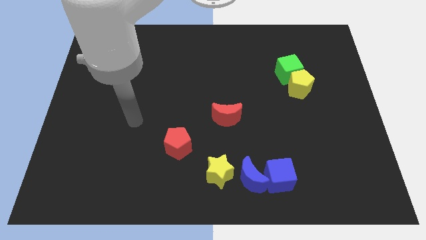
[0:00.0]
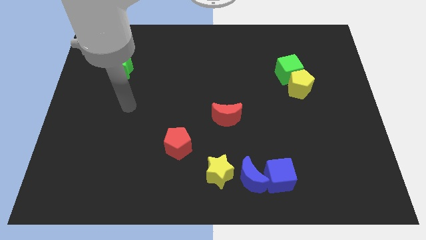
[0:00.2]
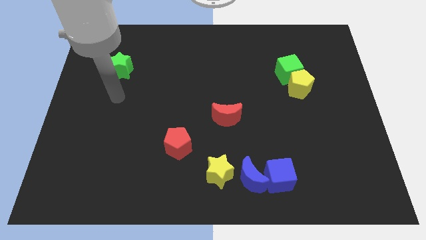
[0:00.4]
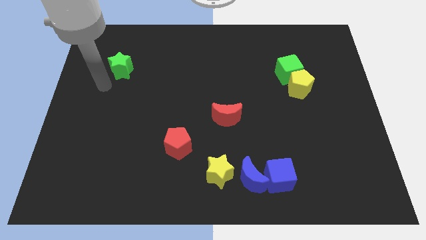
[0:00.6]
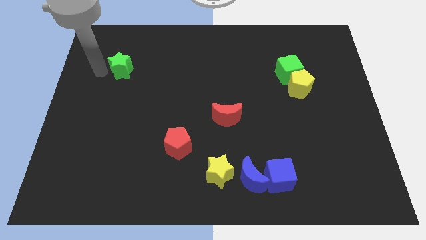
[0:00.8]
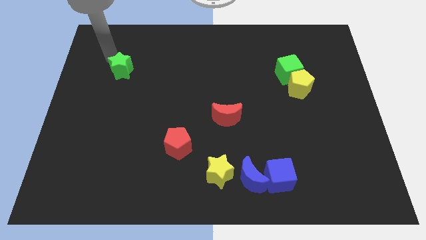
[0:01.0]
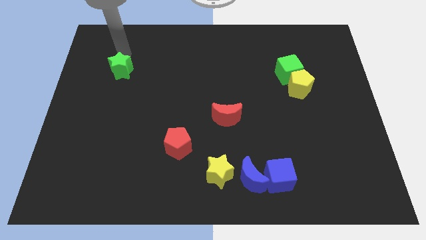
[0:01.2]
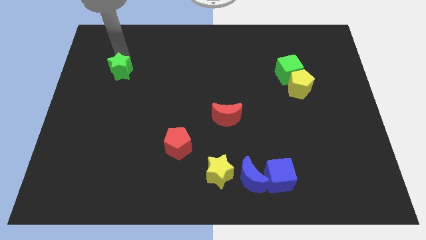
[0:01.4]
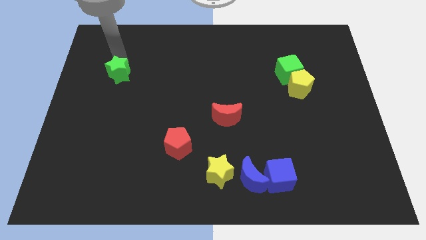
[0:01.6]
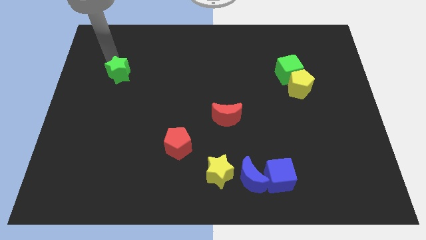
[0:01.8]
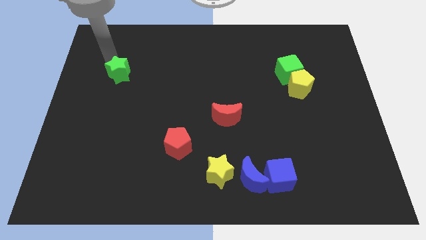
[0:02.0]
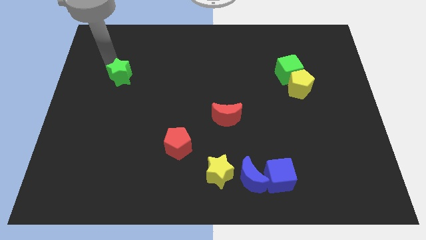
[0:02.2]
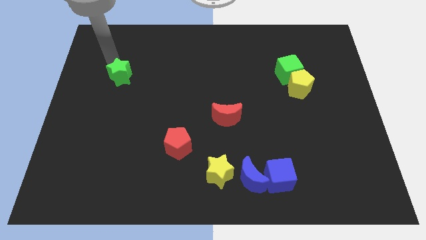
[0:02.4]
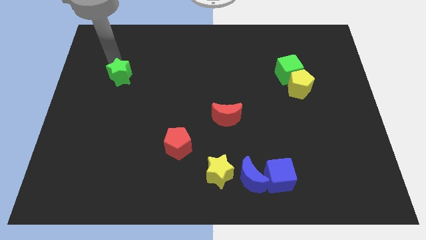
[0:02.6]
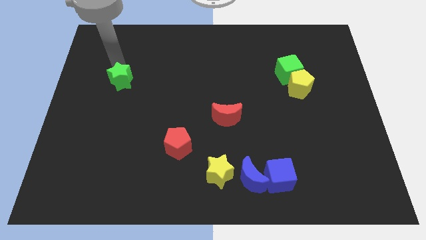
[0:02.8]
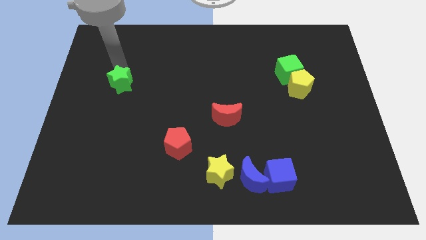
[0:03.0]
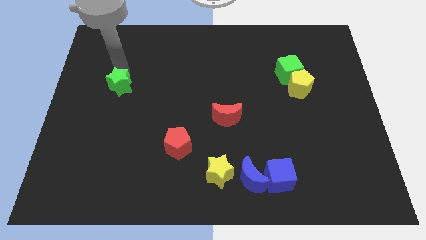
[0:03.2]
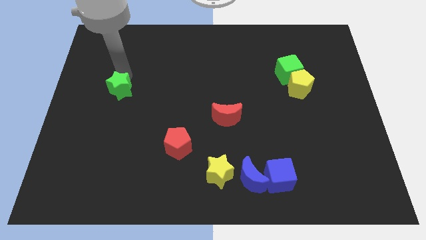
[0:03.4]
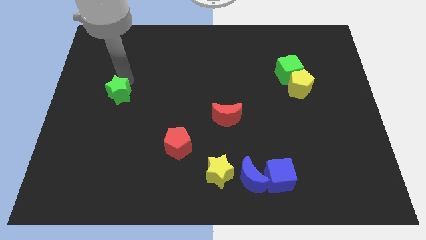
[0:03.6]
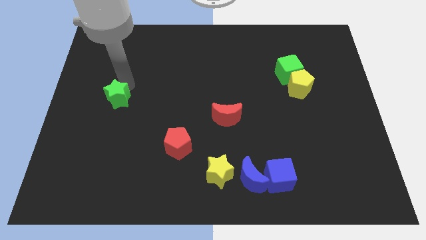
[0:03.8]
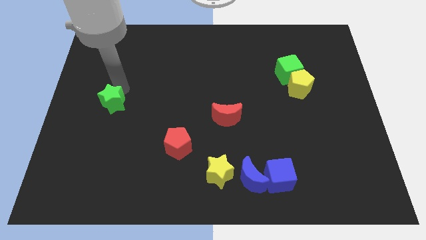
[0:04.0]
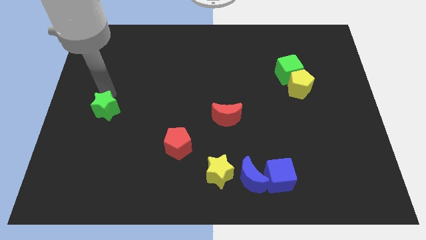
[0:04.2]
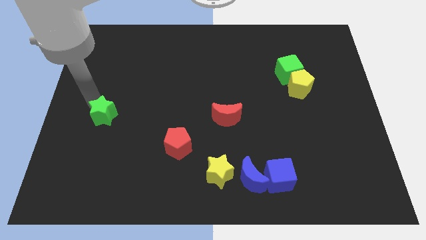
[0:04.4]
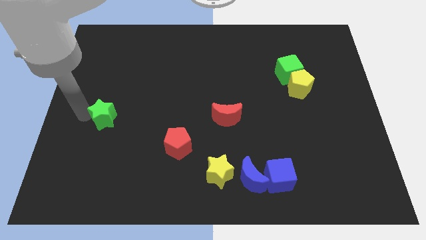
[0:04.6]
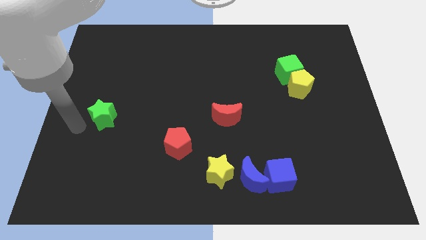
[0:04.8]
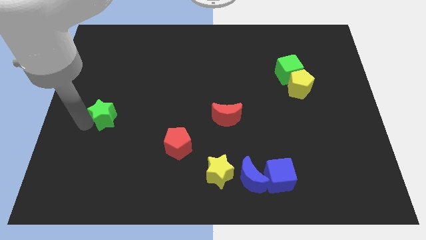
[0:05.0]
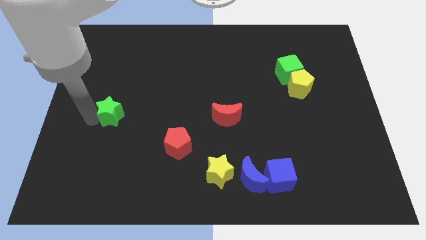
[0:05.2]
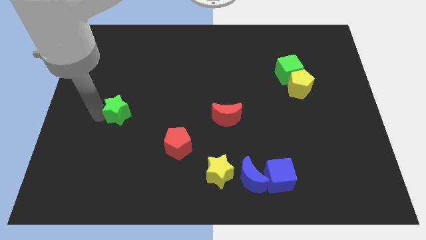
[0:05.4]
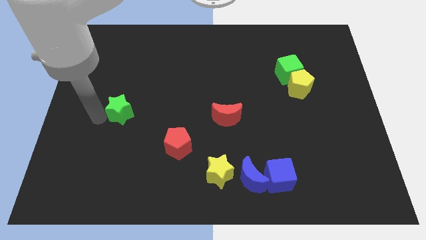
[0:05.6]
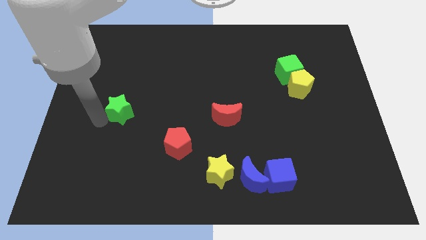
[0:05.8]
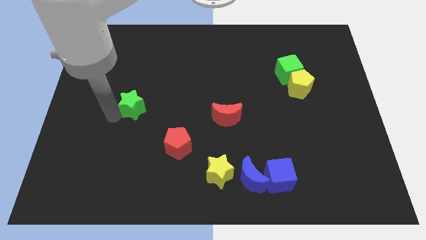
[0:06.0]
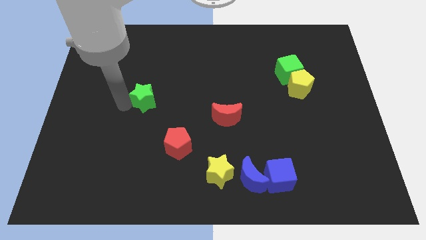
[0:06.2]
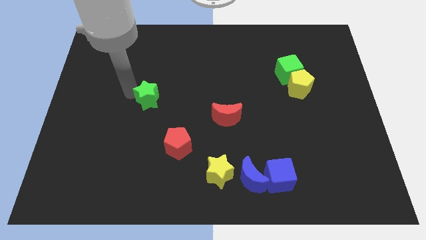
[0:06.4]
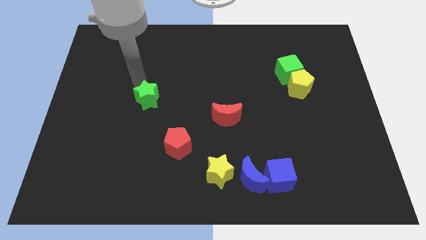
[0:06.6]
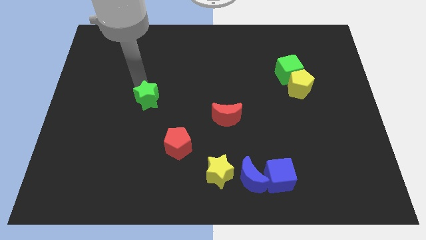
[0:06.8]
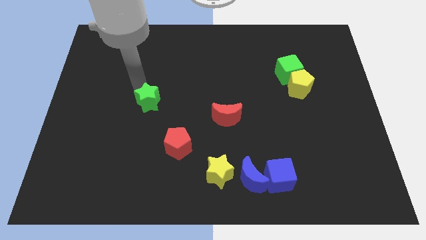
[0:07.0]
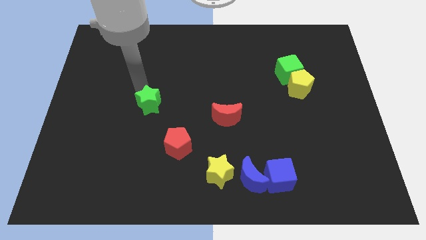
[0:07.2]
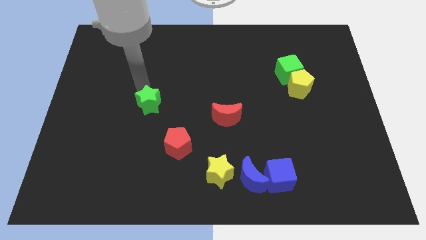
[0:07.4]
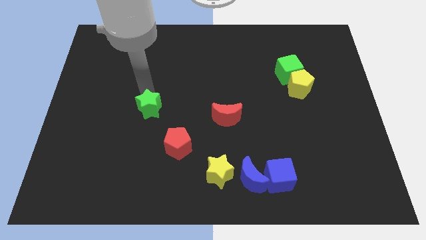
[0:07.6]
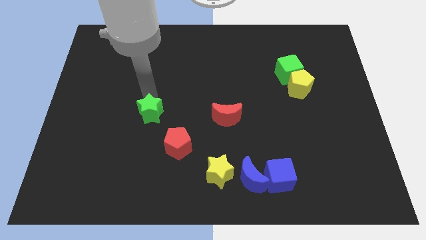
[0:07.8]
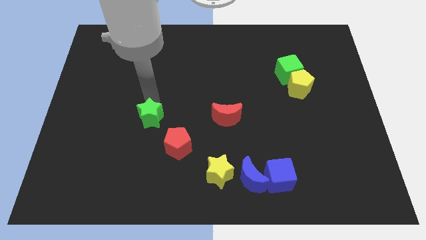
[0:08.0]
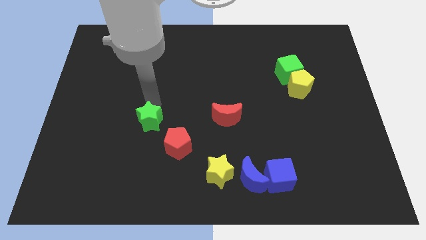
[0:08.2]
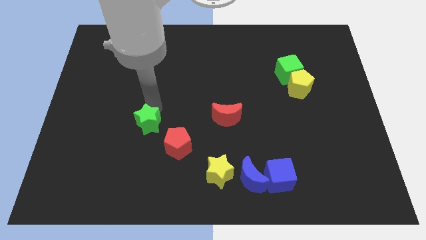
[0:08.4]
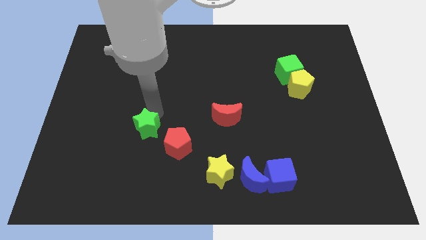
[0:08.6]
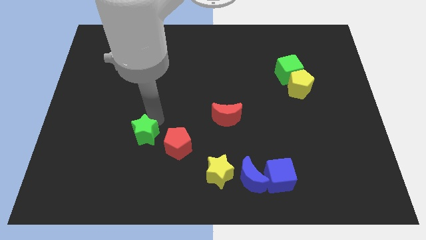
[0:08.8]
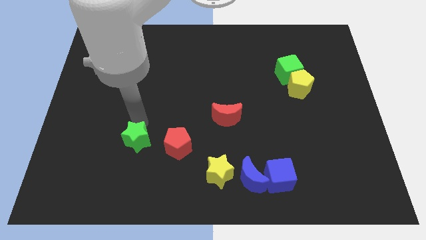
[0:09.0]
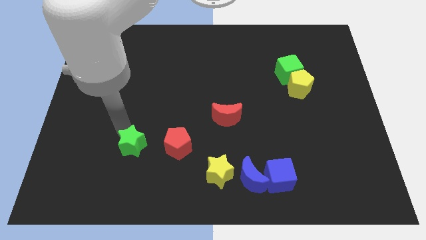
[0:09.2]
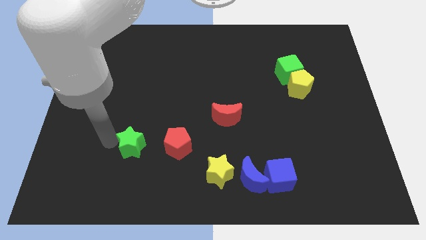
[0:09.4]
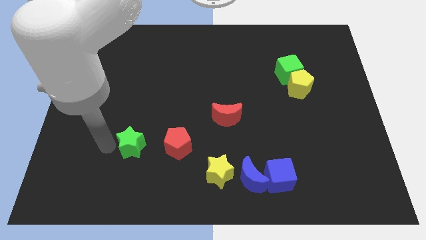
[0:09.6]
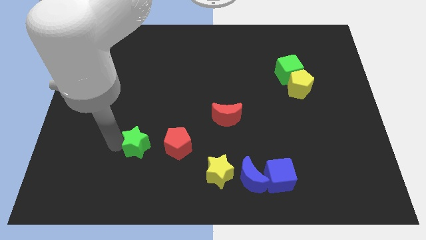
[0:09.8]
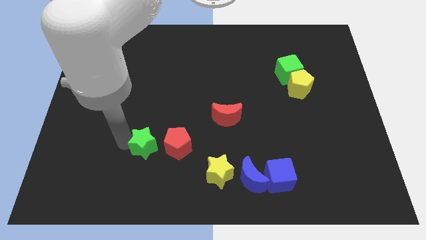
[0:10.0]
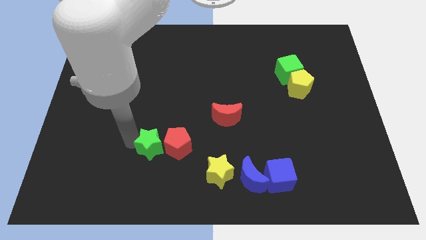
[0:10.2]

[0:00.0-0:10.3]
push the green star to the red pentagon

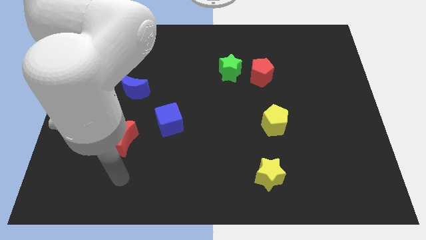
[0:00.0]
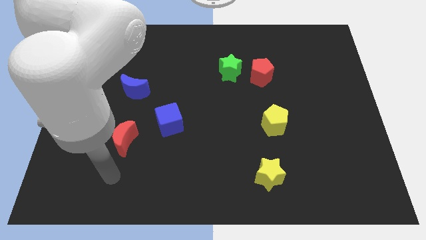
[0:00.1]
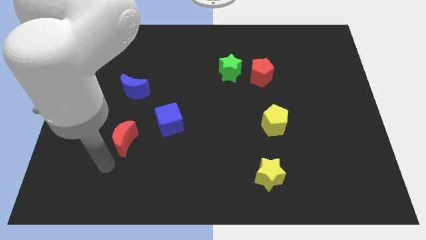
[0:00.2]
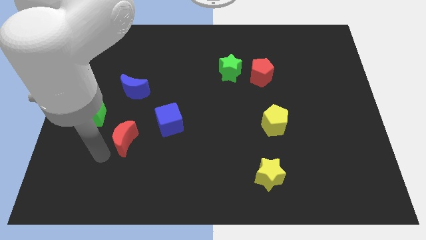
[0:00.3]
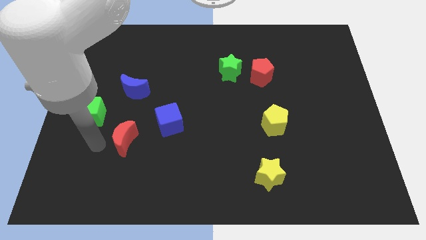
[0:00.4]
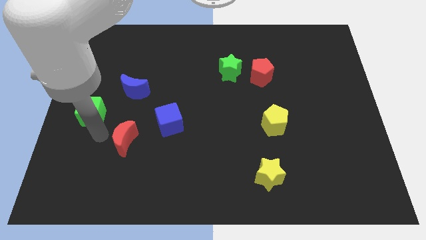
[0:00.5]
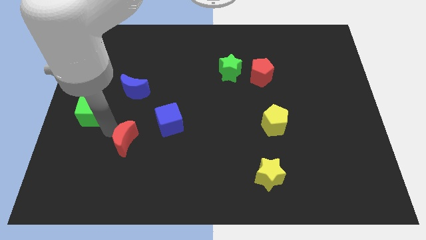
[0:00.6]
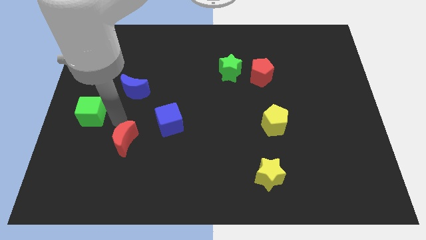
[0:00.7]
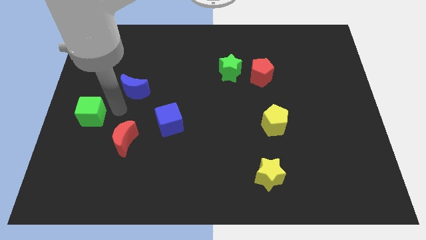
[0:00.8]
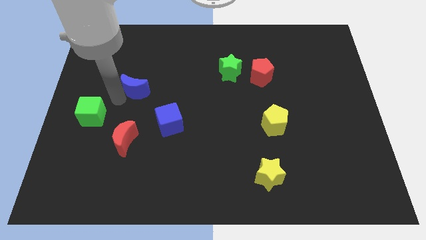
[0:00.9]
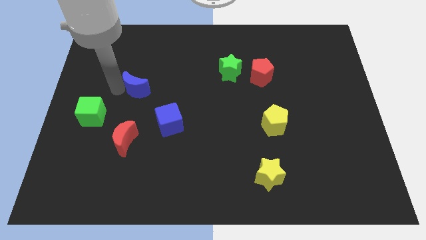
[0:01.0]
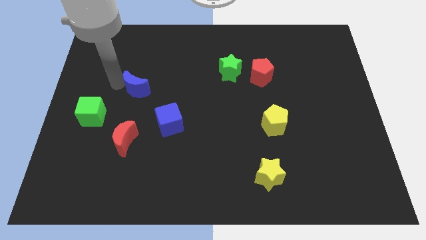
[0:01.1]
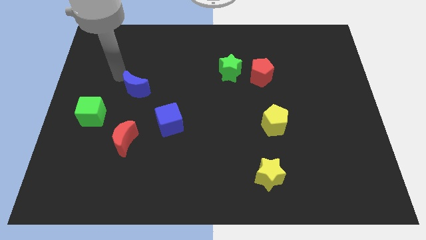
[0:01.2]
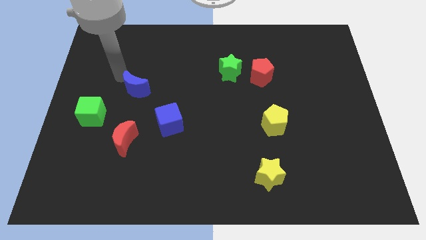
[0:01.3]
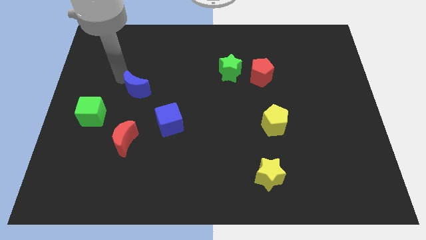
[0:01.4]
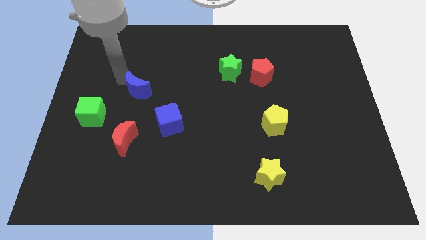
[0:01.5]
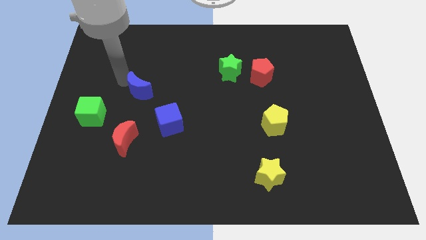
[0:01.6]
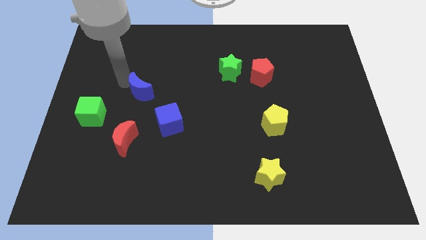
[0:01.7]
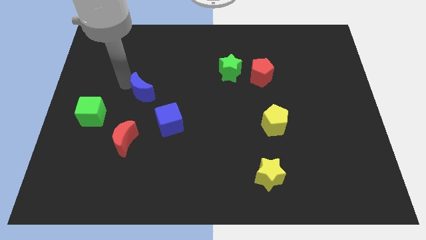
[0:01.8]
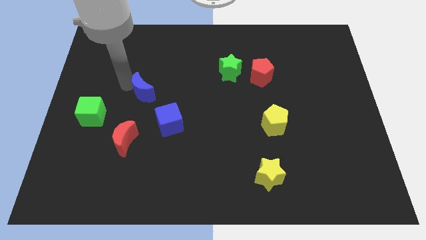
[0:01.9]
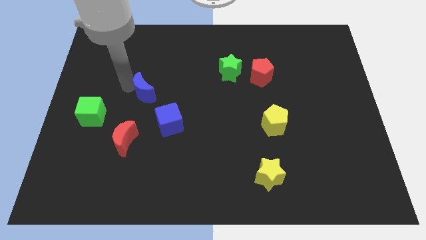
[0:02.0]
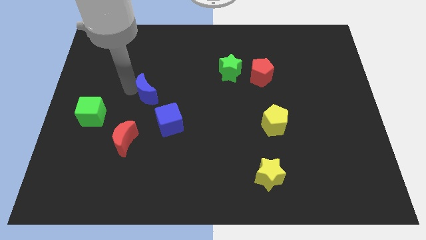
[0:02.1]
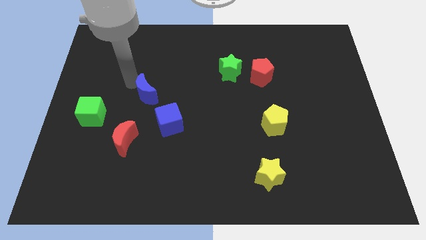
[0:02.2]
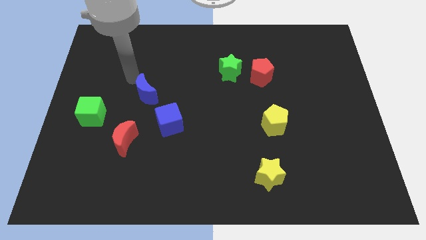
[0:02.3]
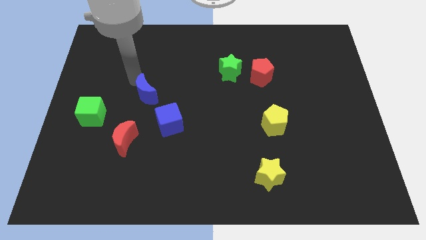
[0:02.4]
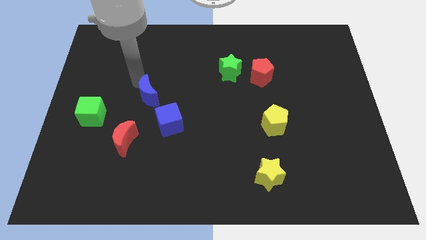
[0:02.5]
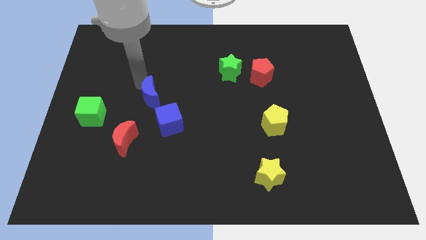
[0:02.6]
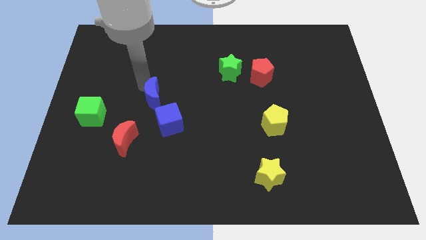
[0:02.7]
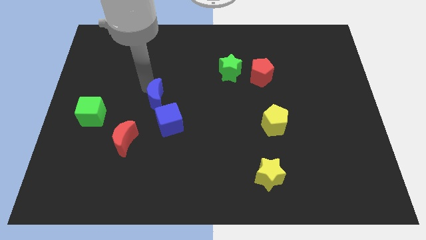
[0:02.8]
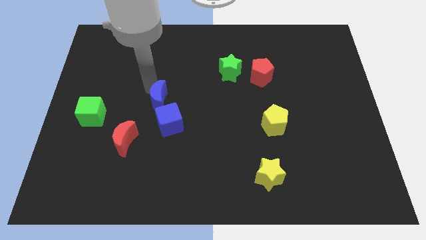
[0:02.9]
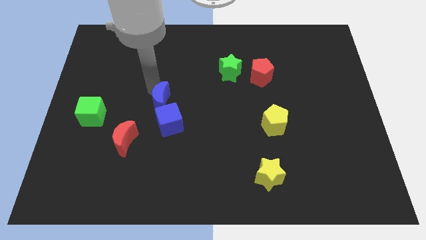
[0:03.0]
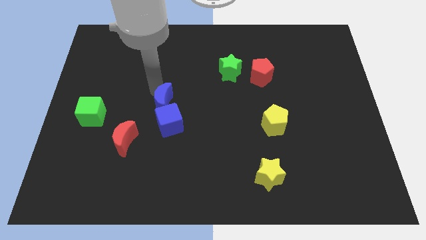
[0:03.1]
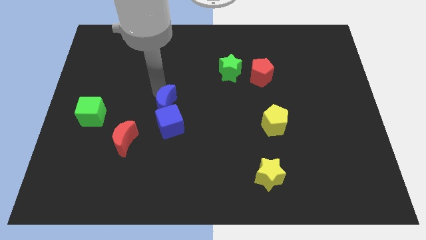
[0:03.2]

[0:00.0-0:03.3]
put the blue moon close to the blue cube
